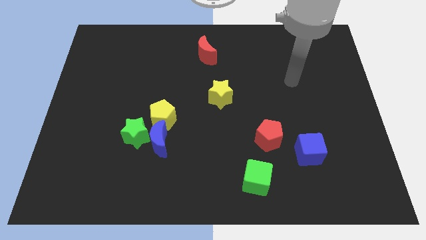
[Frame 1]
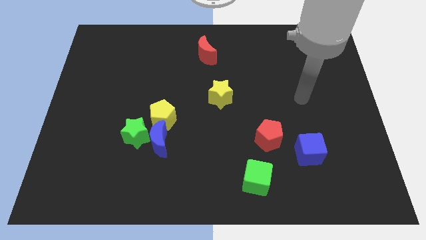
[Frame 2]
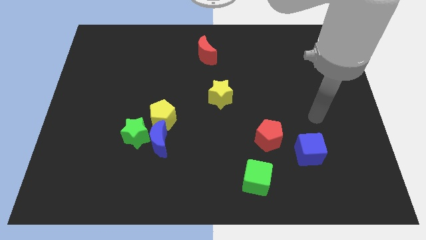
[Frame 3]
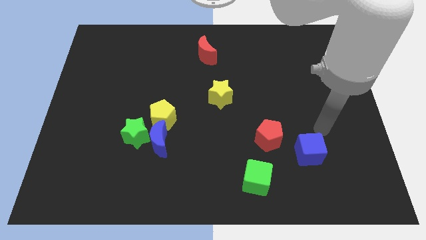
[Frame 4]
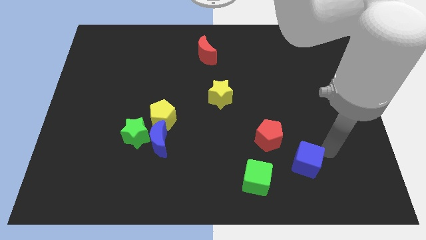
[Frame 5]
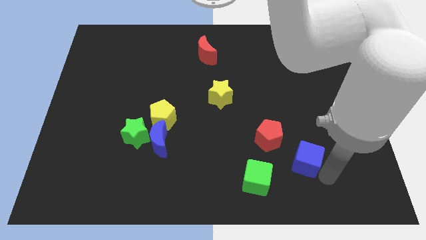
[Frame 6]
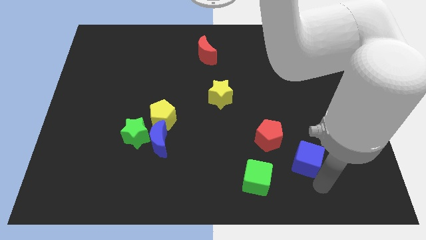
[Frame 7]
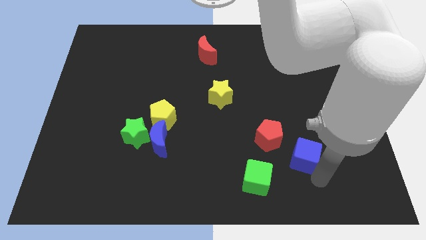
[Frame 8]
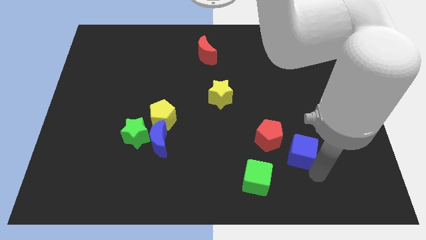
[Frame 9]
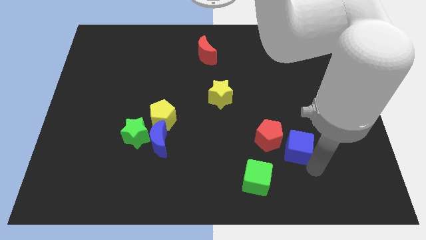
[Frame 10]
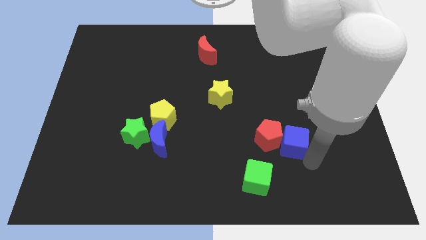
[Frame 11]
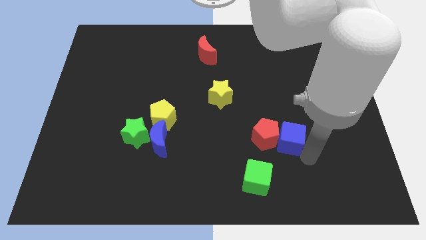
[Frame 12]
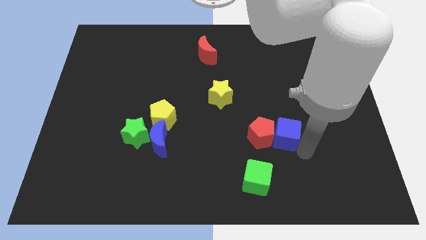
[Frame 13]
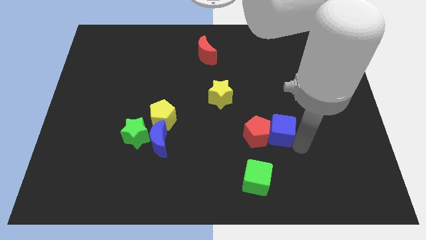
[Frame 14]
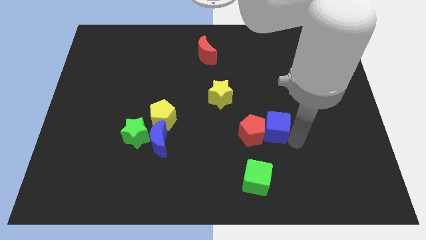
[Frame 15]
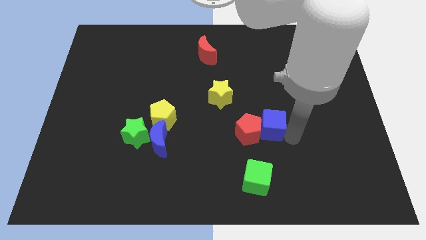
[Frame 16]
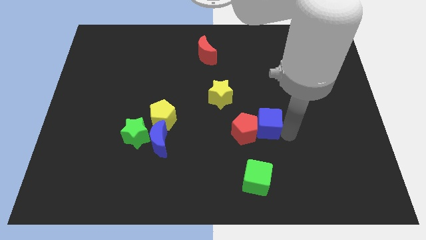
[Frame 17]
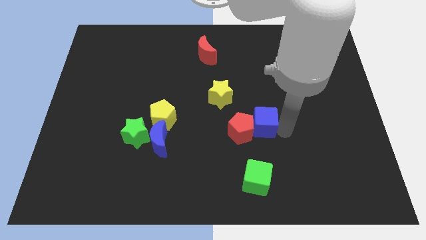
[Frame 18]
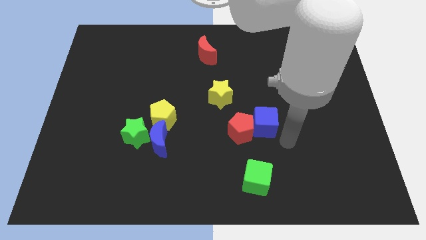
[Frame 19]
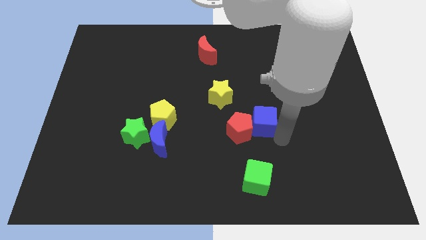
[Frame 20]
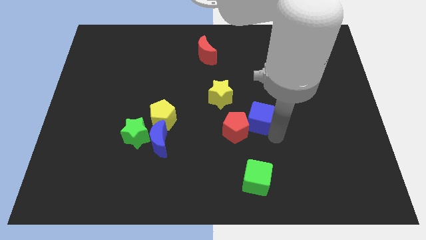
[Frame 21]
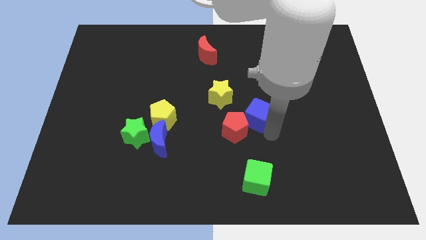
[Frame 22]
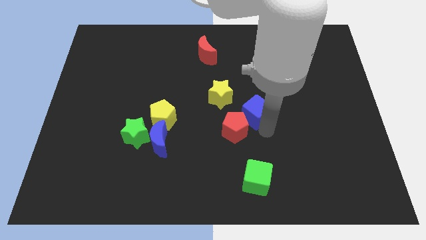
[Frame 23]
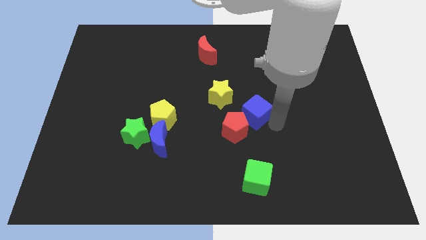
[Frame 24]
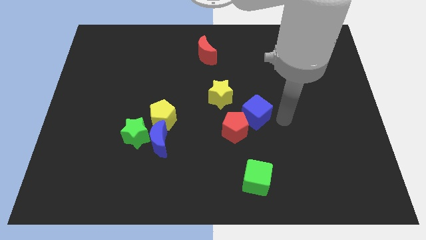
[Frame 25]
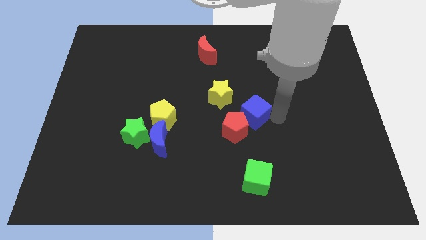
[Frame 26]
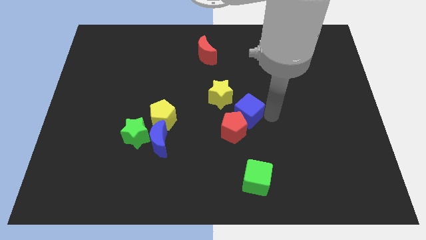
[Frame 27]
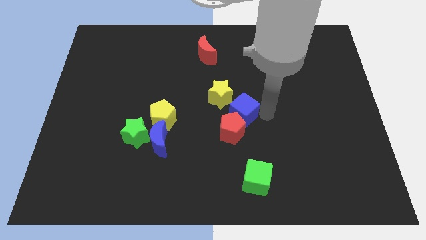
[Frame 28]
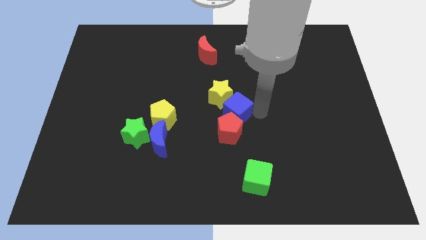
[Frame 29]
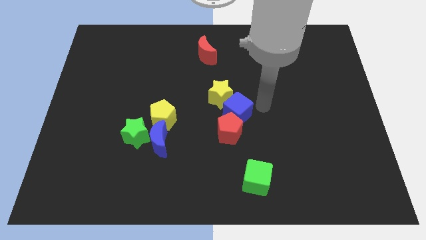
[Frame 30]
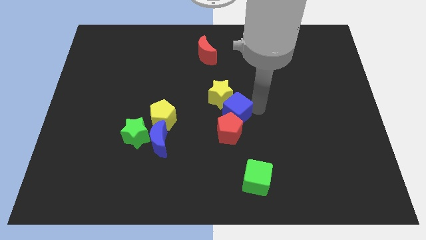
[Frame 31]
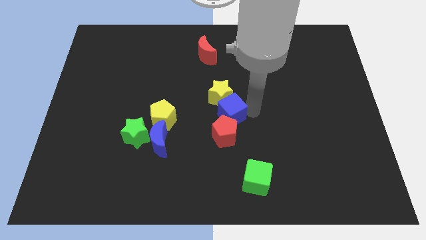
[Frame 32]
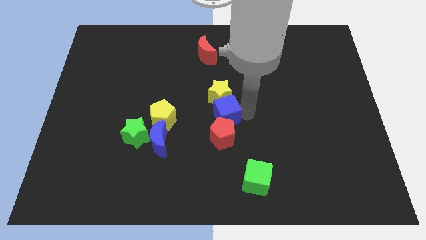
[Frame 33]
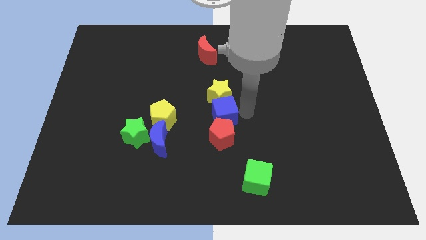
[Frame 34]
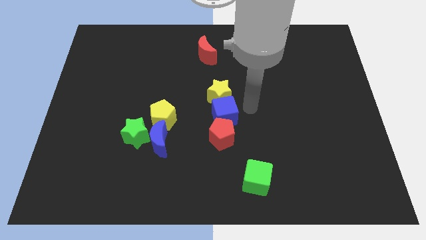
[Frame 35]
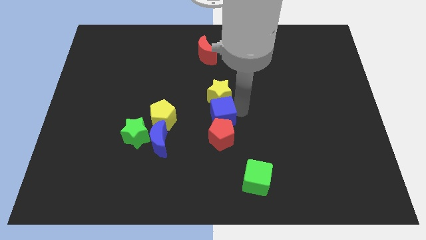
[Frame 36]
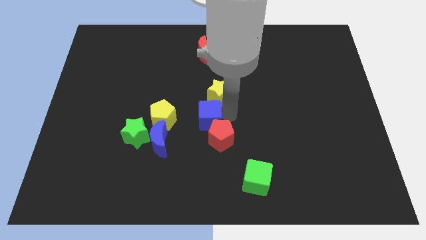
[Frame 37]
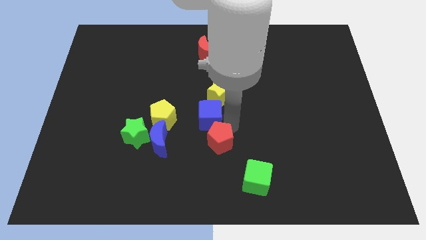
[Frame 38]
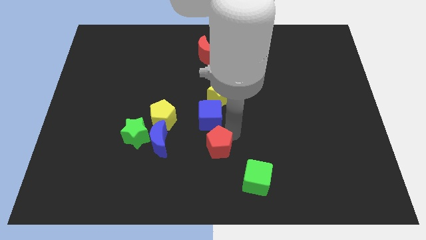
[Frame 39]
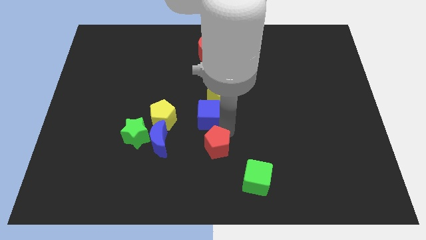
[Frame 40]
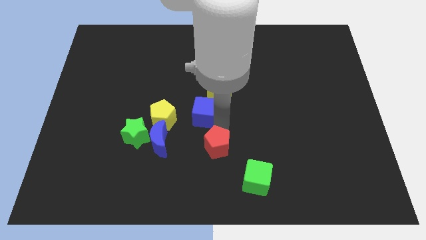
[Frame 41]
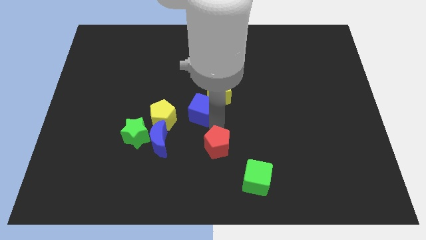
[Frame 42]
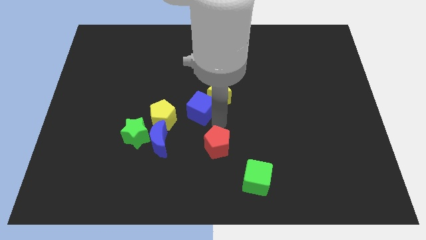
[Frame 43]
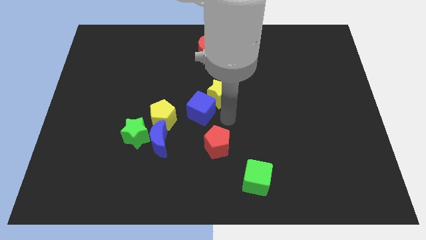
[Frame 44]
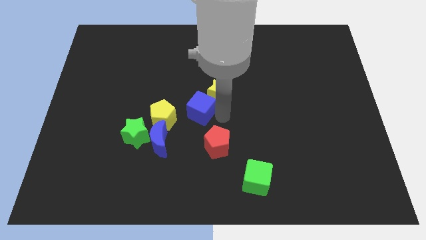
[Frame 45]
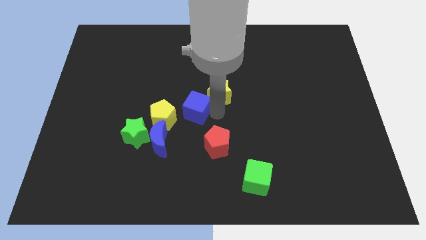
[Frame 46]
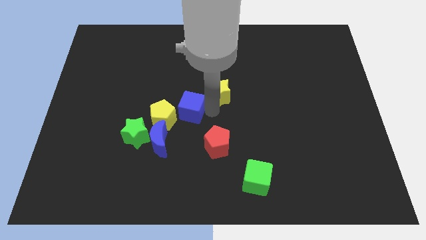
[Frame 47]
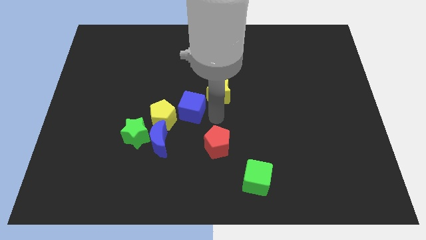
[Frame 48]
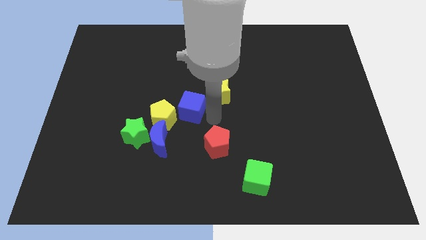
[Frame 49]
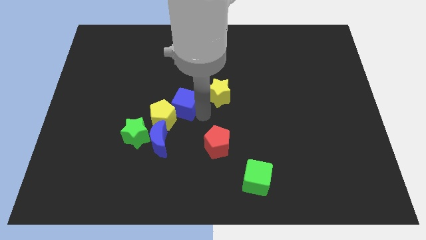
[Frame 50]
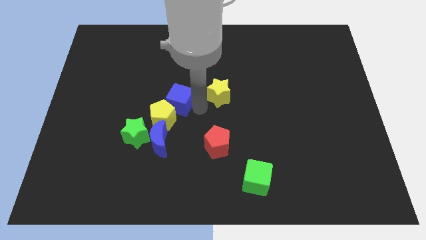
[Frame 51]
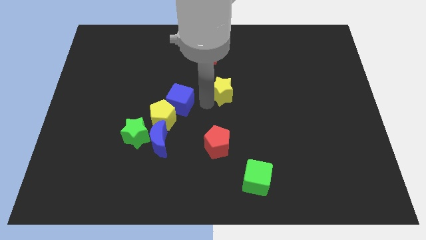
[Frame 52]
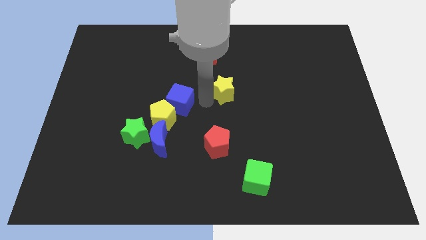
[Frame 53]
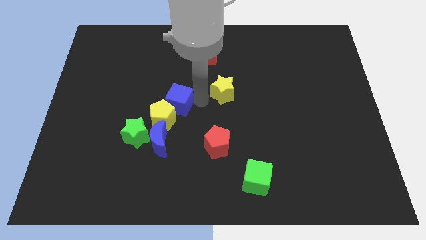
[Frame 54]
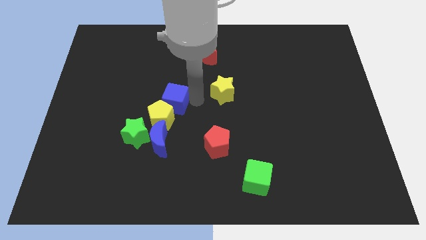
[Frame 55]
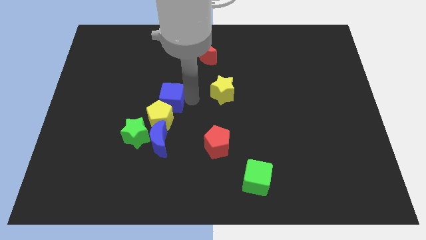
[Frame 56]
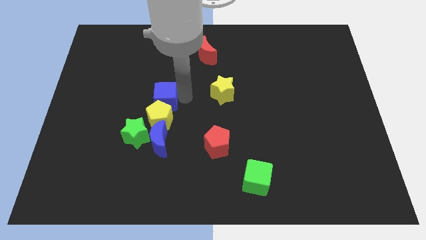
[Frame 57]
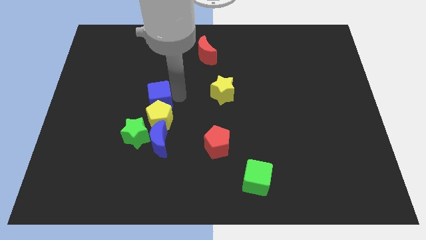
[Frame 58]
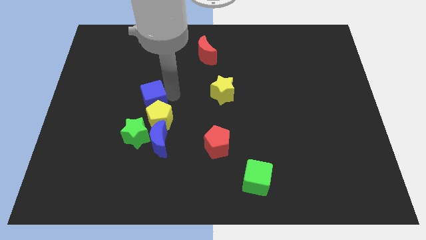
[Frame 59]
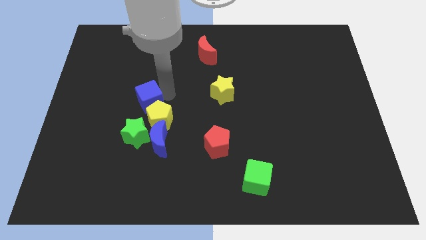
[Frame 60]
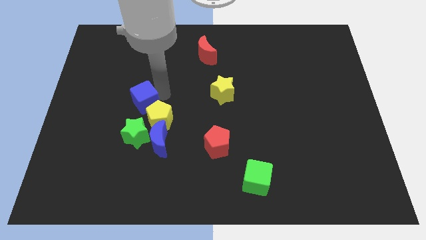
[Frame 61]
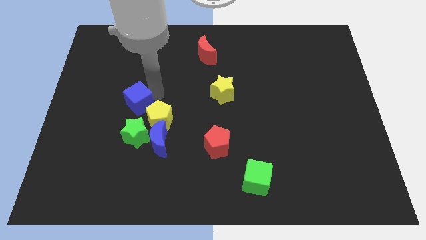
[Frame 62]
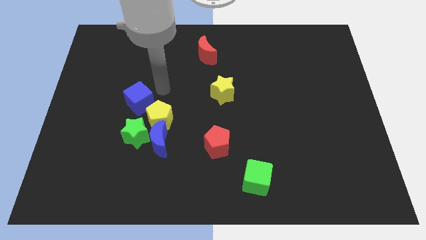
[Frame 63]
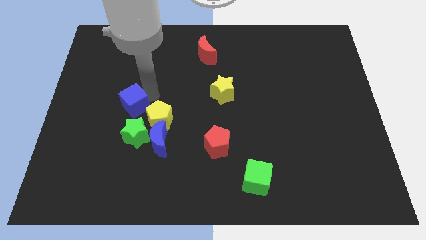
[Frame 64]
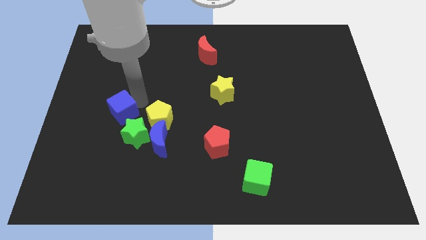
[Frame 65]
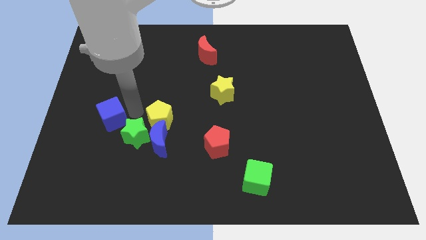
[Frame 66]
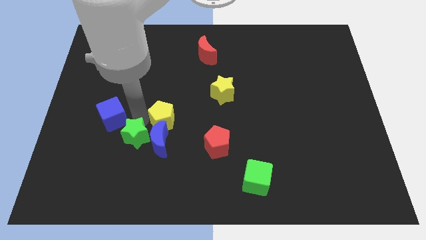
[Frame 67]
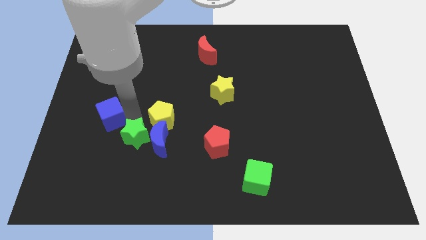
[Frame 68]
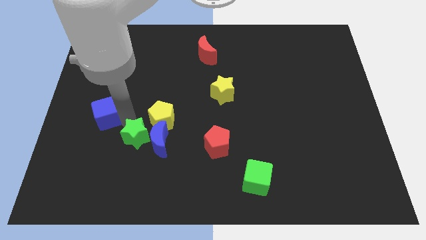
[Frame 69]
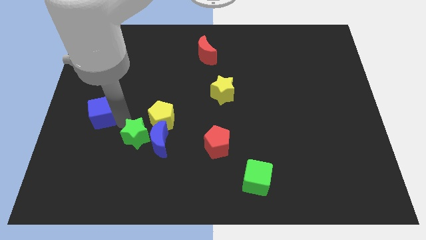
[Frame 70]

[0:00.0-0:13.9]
push the blue cube to the left side
